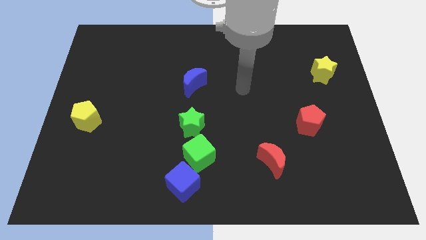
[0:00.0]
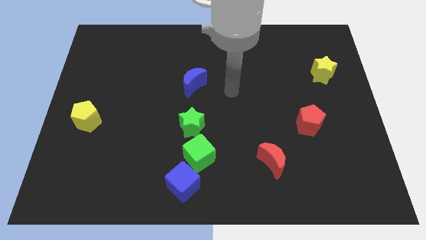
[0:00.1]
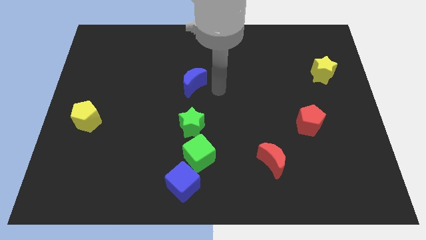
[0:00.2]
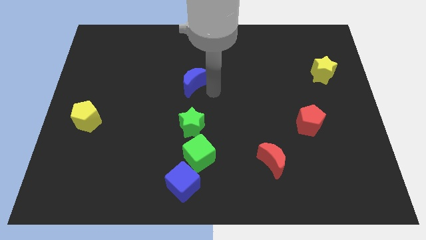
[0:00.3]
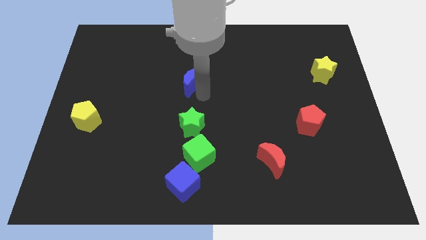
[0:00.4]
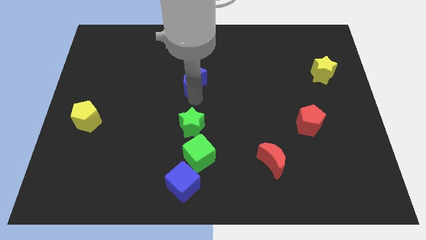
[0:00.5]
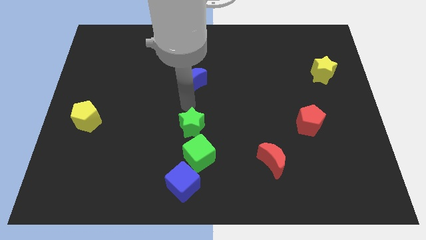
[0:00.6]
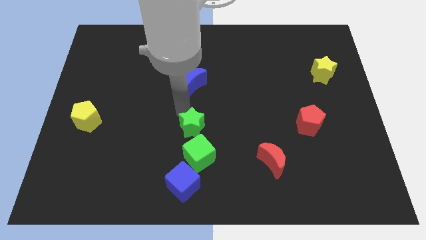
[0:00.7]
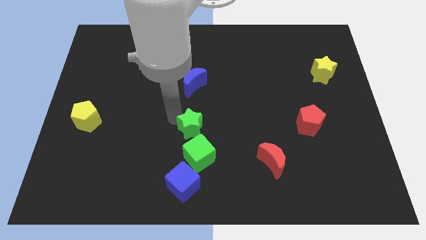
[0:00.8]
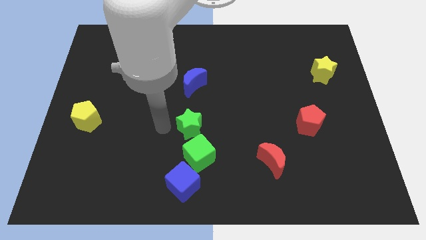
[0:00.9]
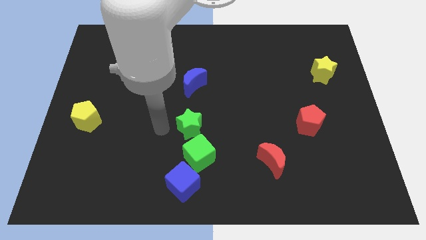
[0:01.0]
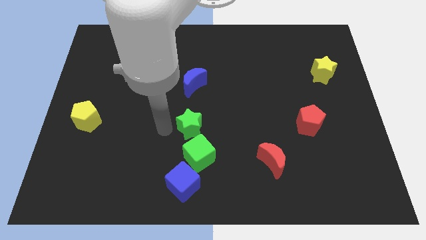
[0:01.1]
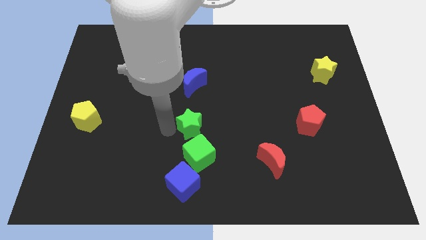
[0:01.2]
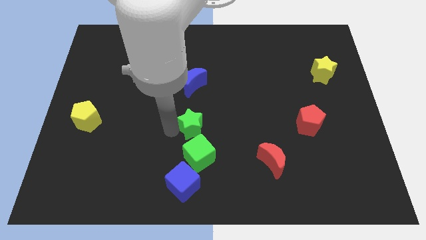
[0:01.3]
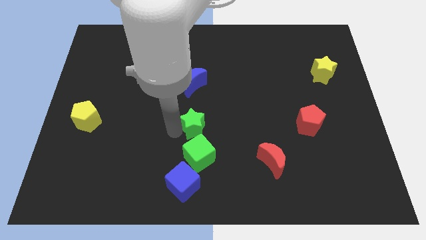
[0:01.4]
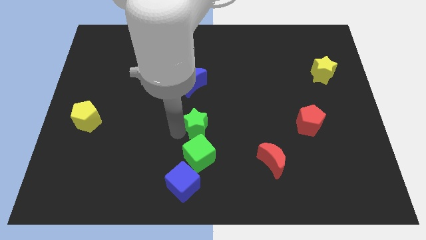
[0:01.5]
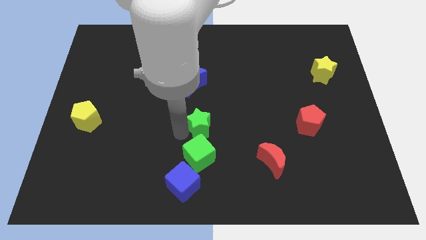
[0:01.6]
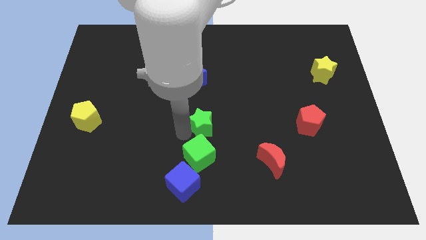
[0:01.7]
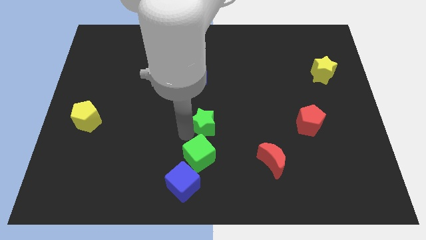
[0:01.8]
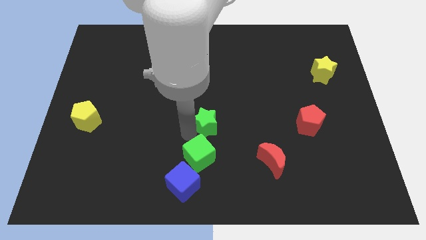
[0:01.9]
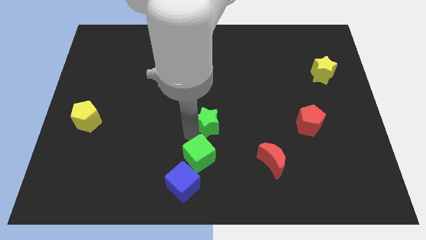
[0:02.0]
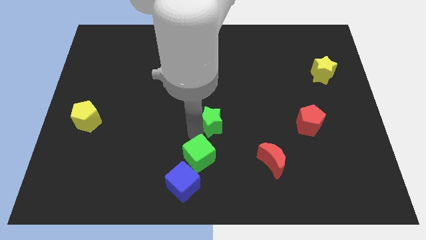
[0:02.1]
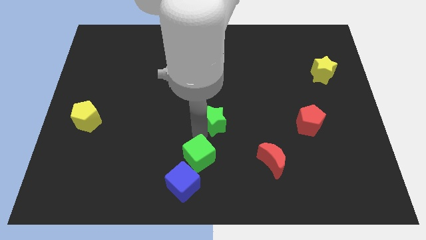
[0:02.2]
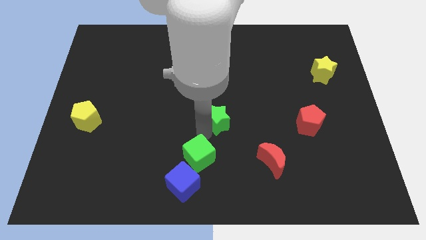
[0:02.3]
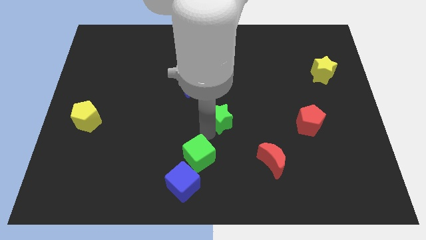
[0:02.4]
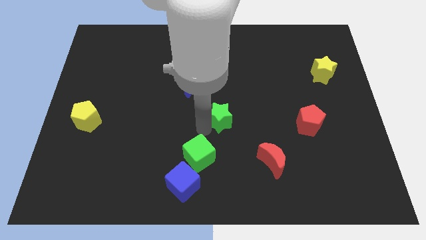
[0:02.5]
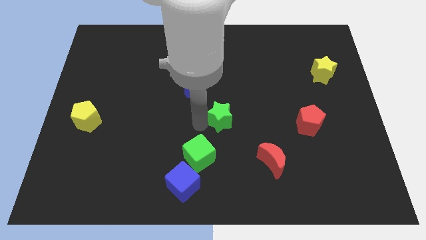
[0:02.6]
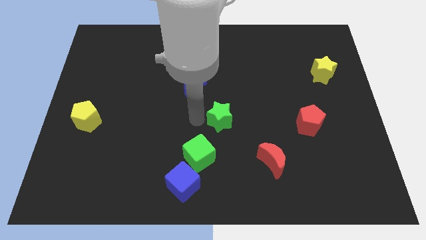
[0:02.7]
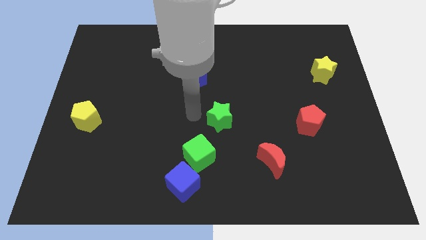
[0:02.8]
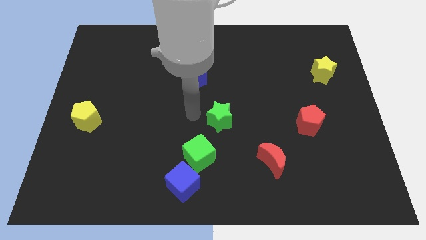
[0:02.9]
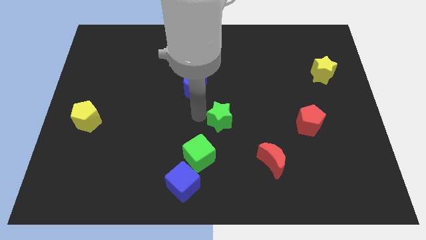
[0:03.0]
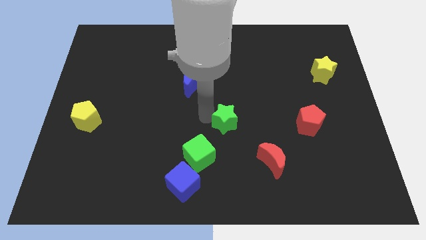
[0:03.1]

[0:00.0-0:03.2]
slightly push the green star to the right

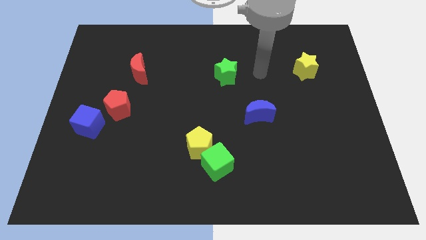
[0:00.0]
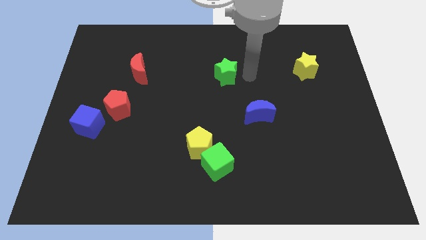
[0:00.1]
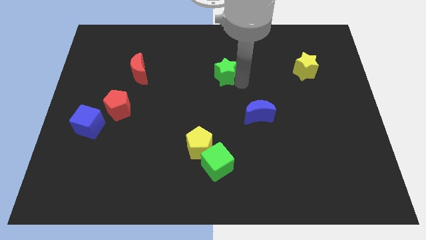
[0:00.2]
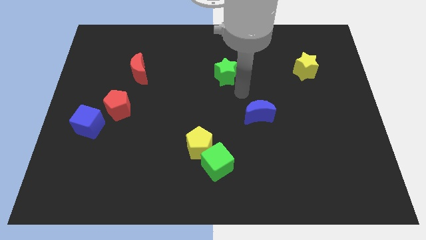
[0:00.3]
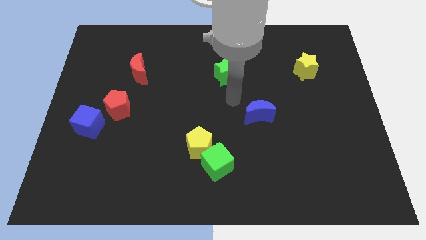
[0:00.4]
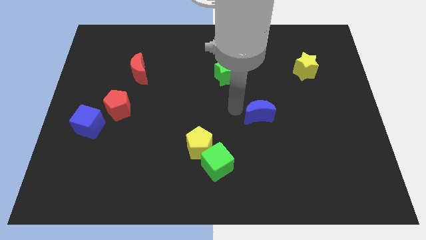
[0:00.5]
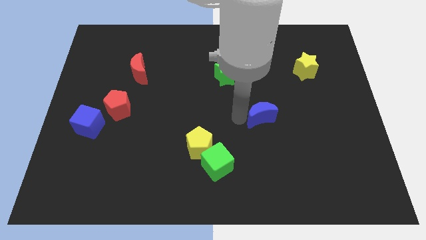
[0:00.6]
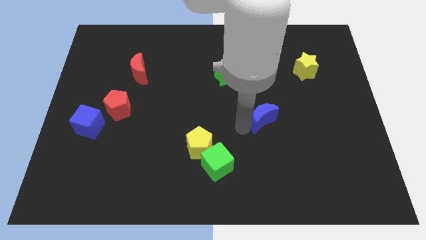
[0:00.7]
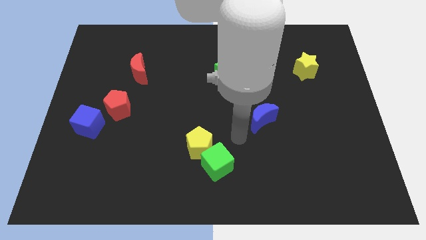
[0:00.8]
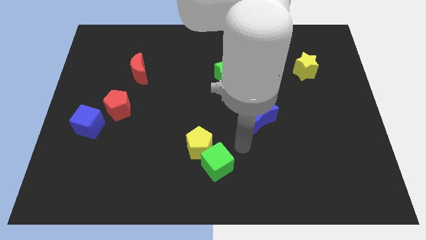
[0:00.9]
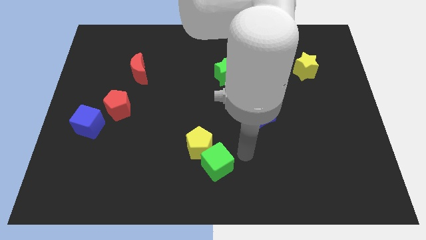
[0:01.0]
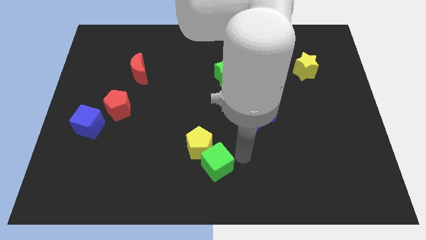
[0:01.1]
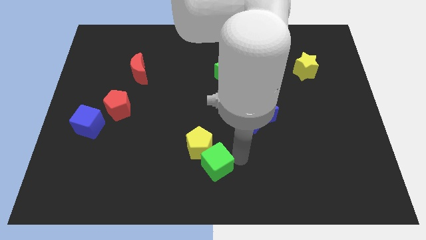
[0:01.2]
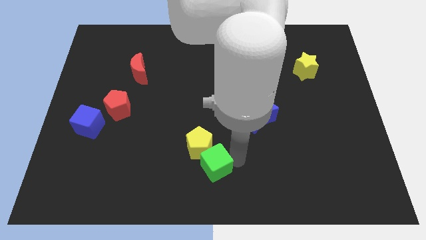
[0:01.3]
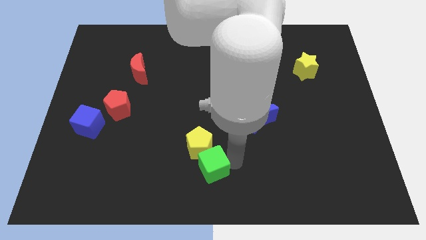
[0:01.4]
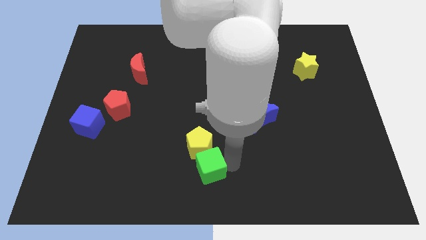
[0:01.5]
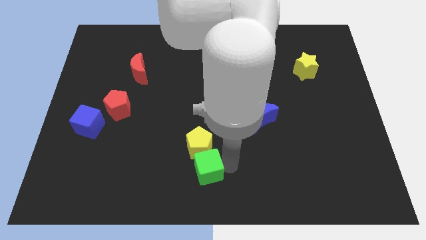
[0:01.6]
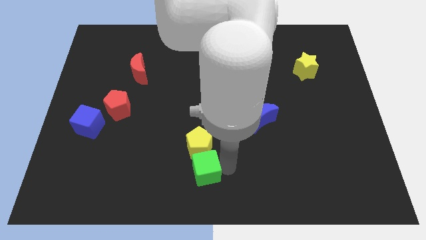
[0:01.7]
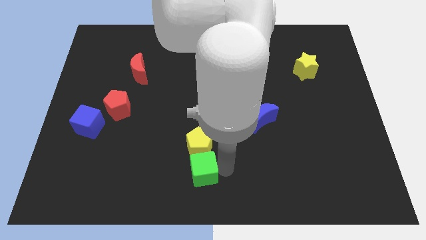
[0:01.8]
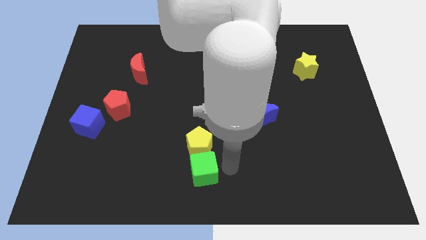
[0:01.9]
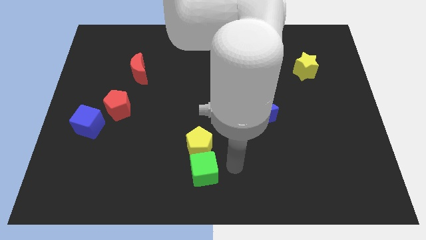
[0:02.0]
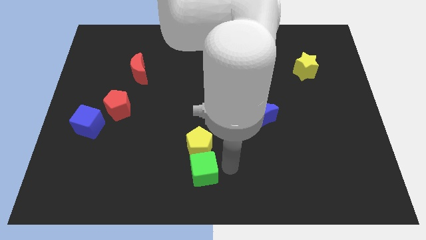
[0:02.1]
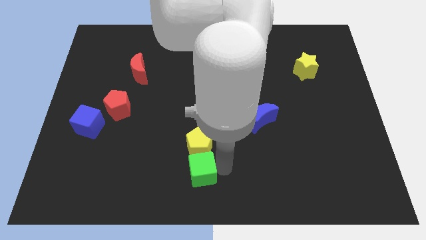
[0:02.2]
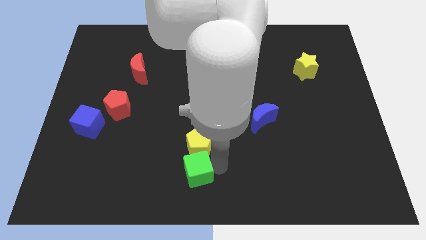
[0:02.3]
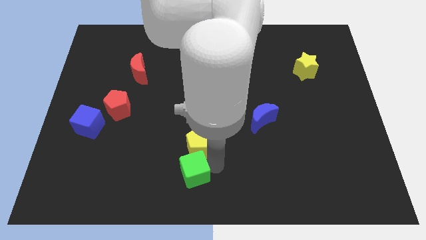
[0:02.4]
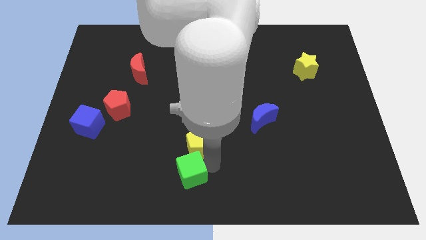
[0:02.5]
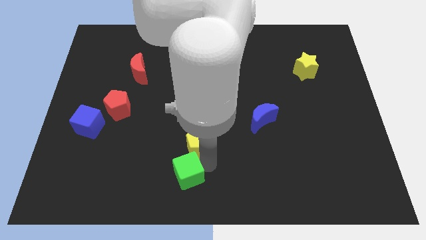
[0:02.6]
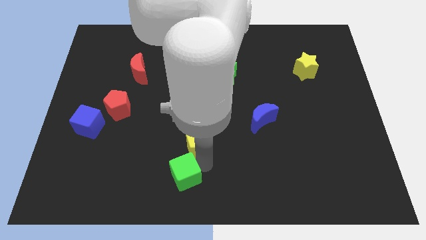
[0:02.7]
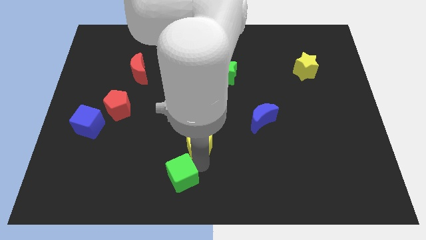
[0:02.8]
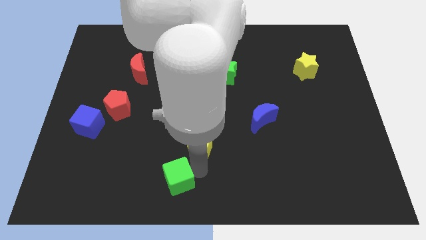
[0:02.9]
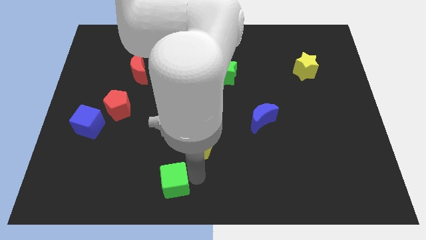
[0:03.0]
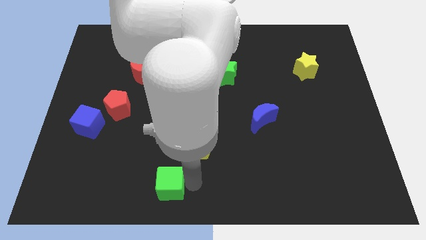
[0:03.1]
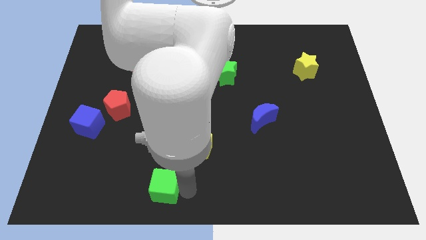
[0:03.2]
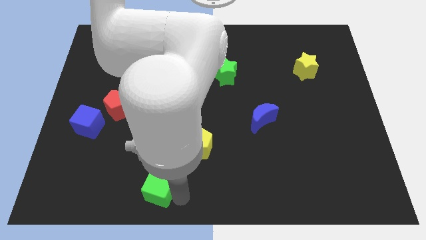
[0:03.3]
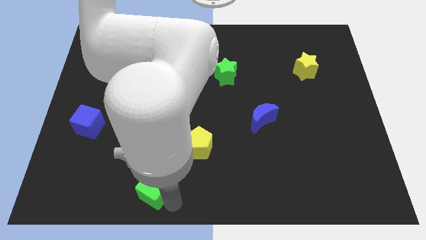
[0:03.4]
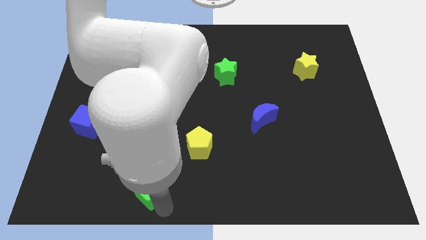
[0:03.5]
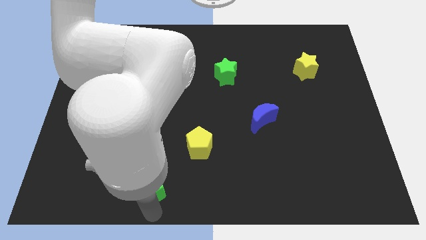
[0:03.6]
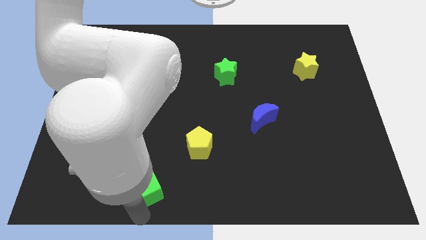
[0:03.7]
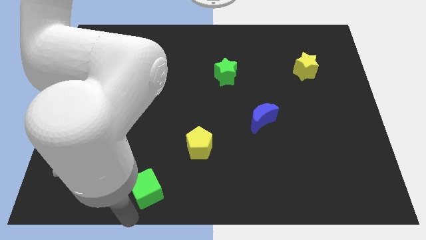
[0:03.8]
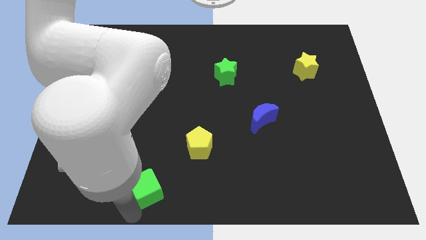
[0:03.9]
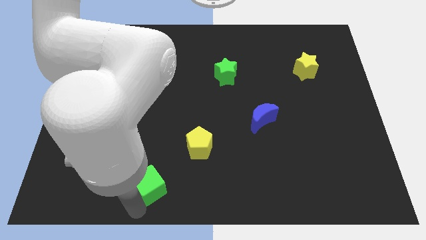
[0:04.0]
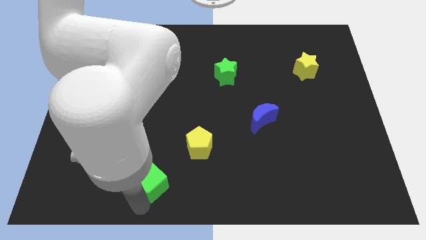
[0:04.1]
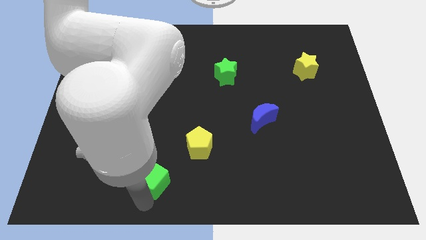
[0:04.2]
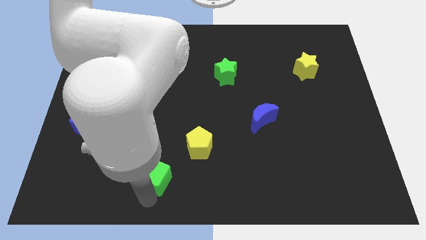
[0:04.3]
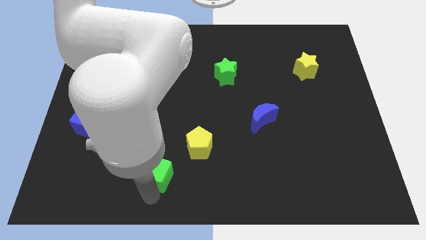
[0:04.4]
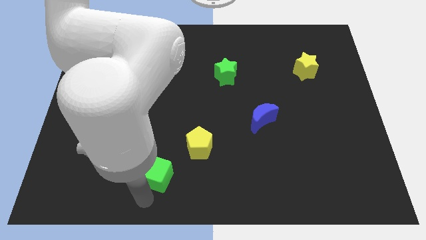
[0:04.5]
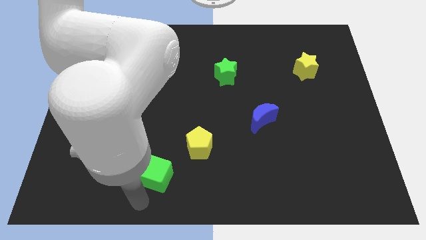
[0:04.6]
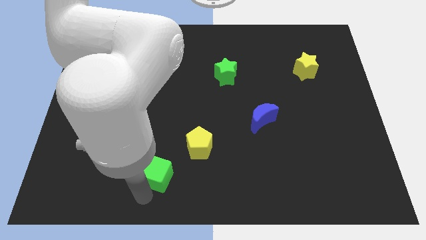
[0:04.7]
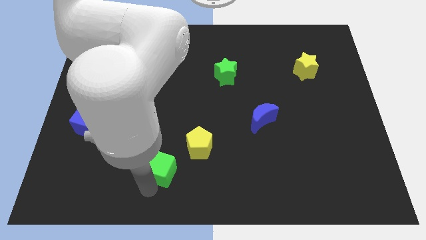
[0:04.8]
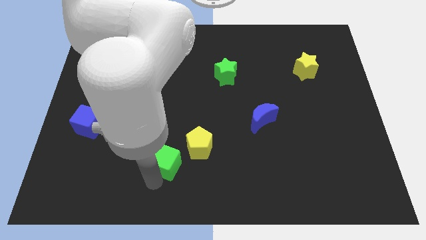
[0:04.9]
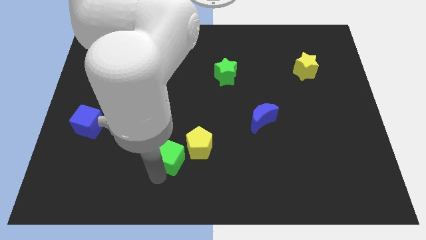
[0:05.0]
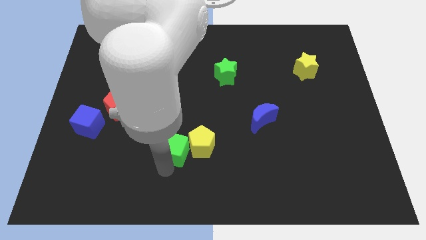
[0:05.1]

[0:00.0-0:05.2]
slightly push the green cube upwards and then to the left
